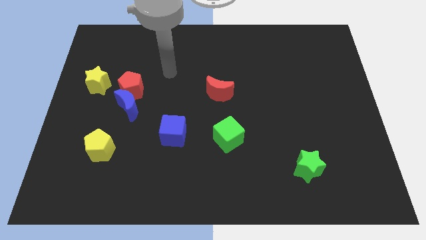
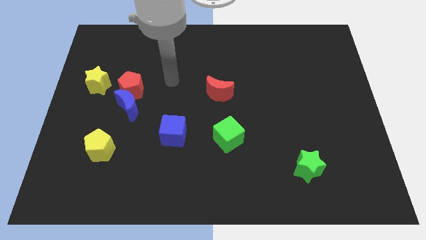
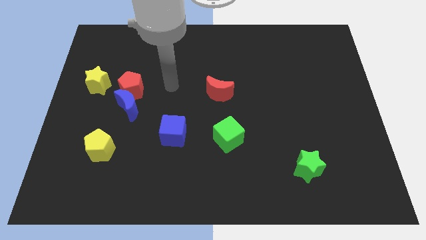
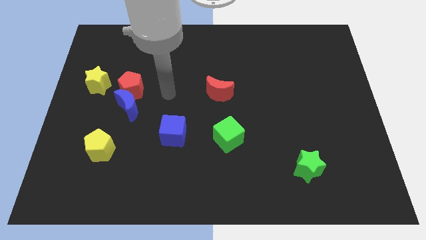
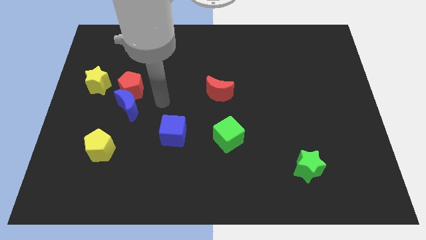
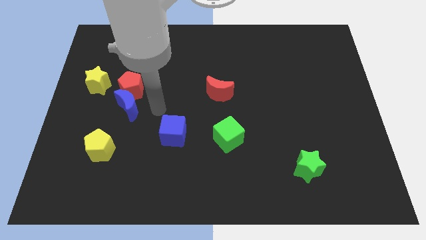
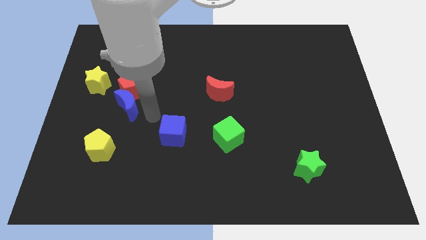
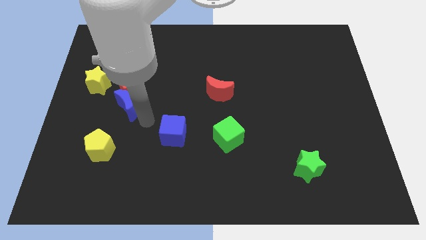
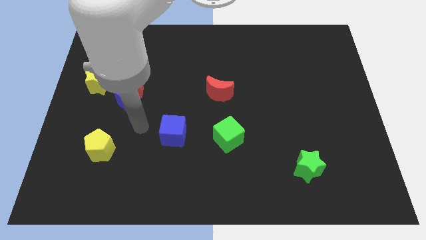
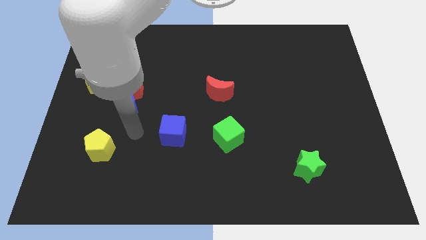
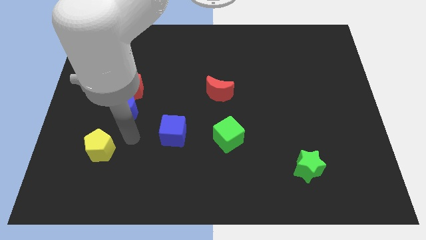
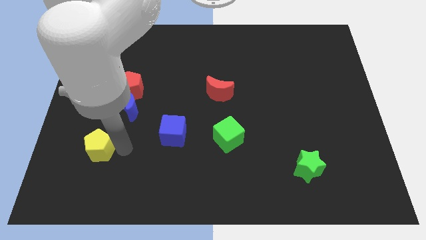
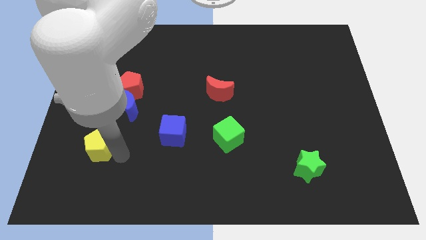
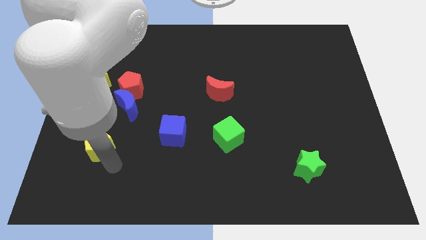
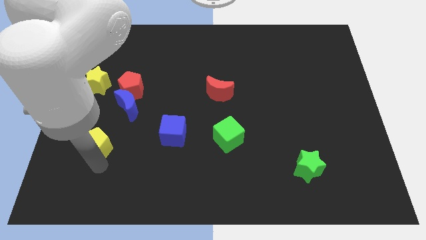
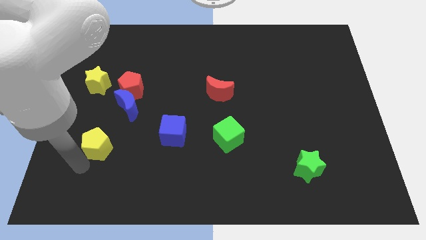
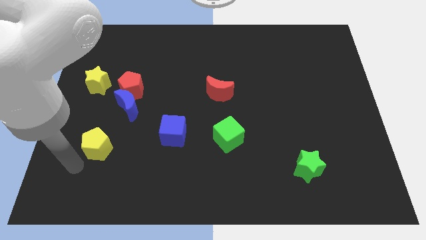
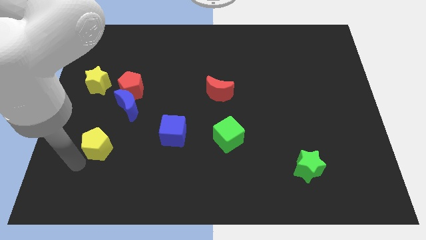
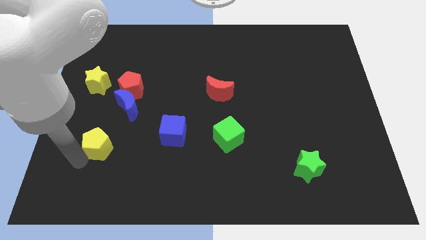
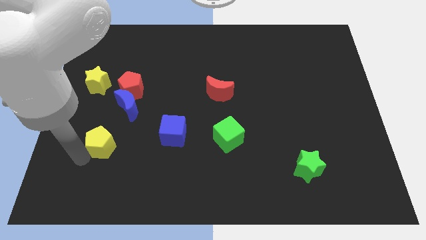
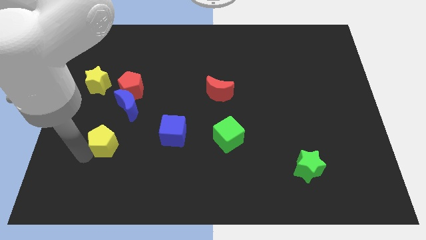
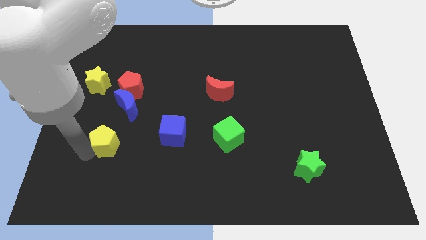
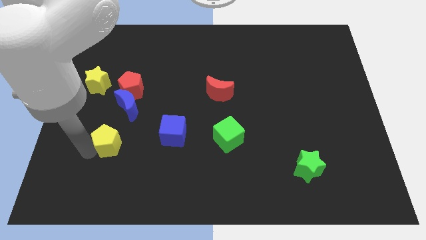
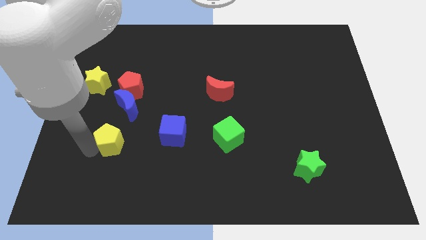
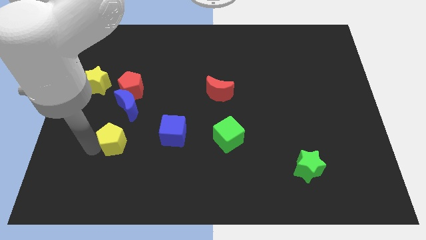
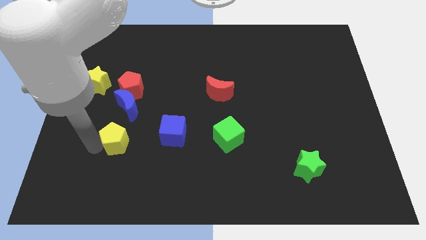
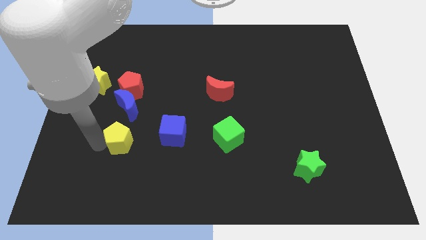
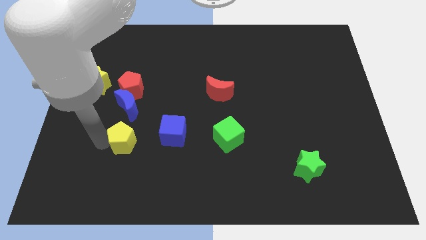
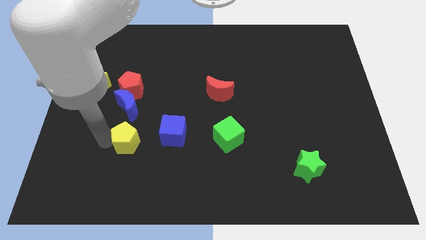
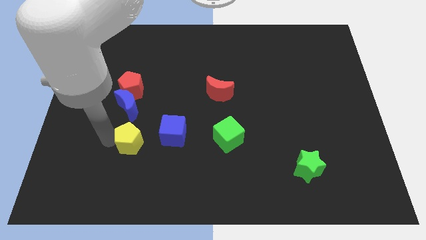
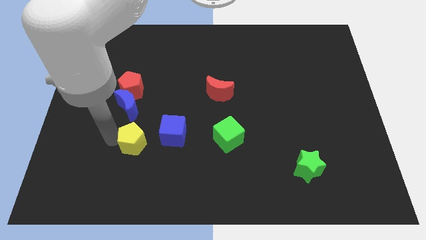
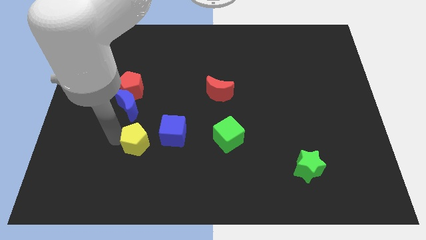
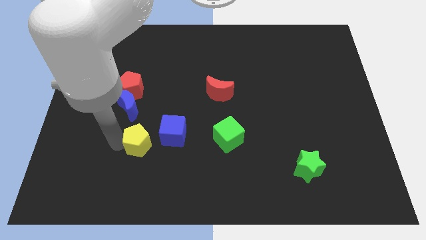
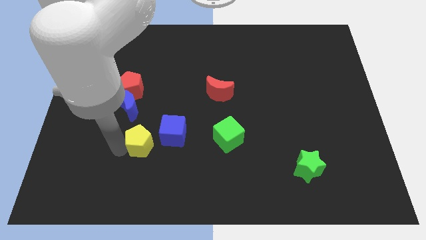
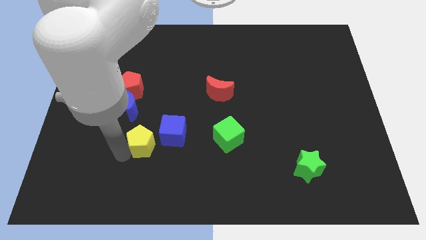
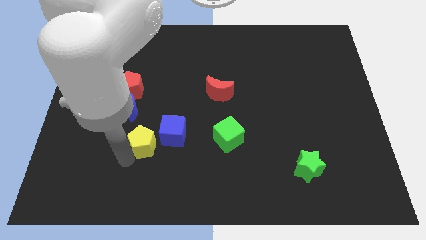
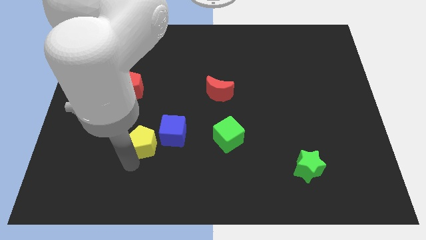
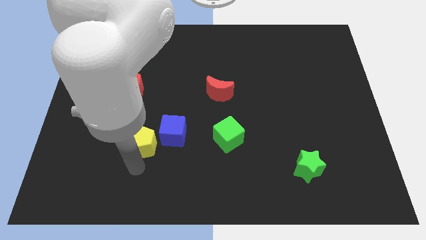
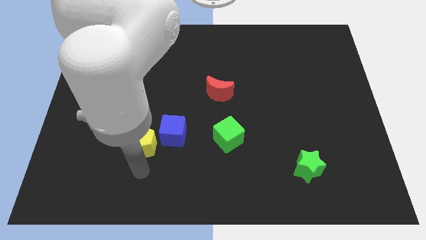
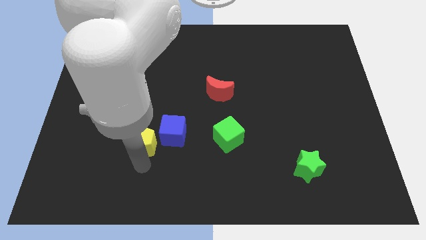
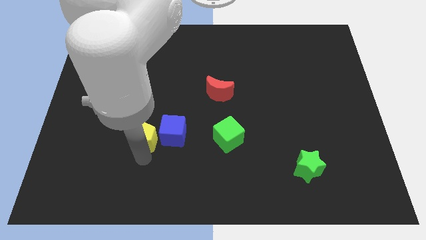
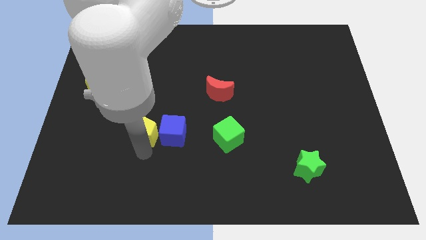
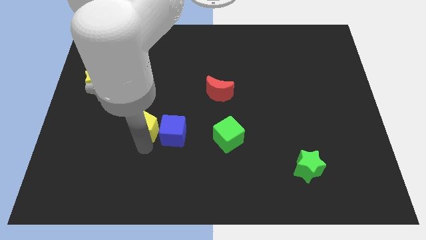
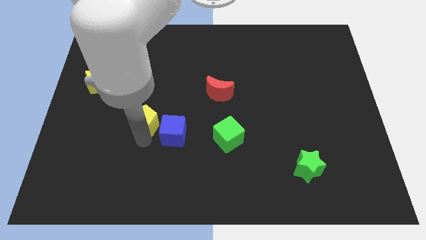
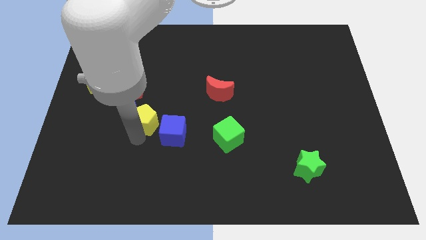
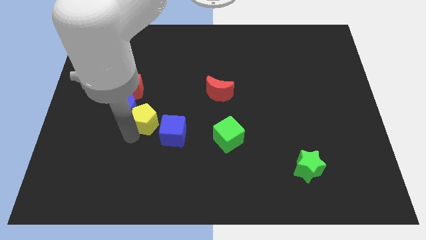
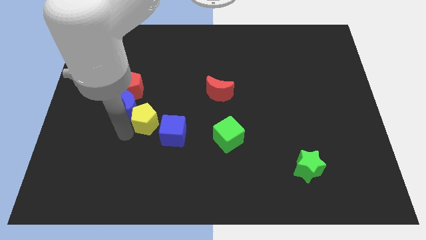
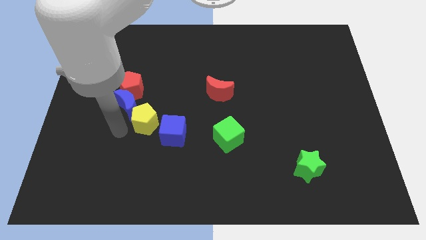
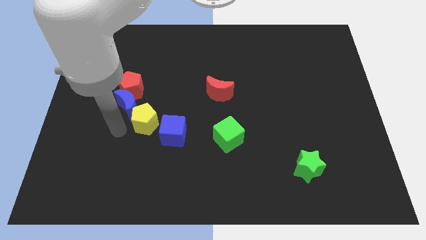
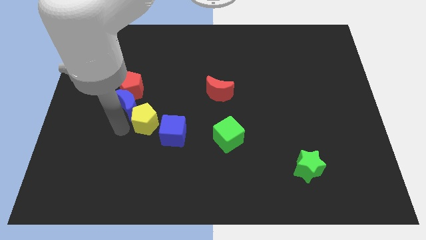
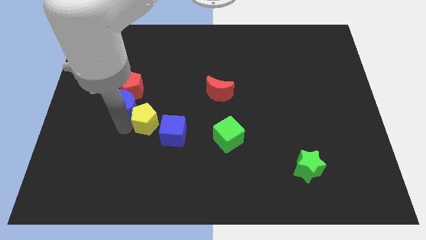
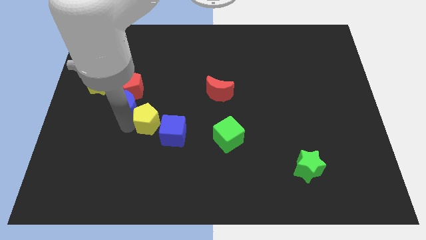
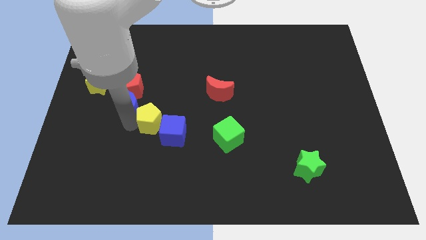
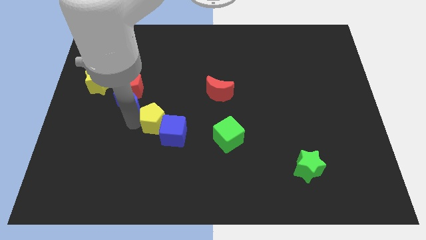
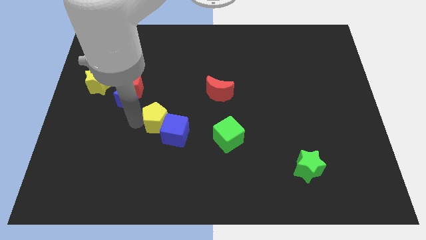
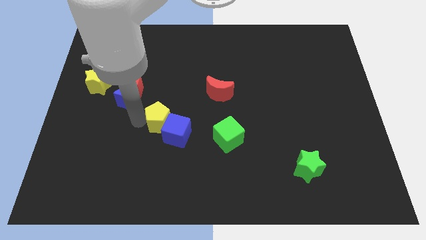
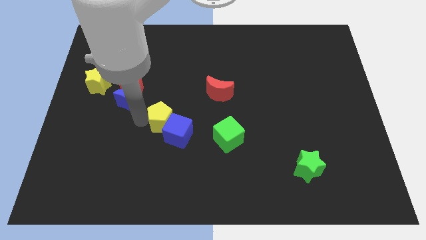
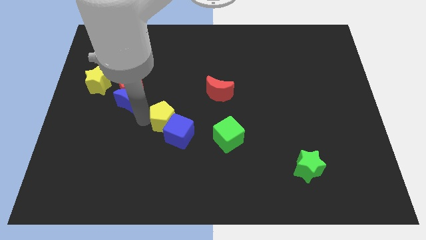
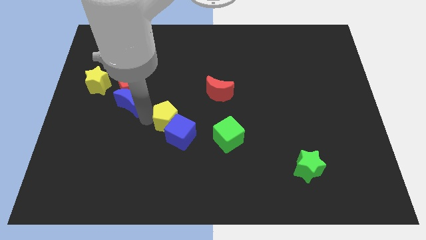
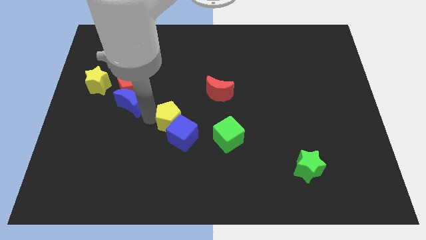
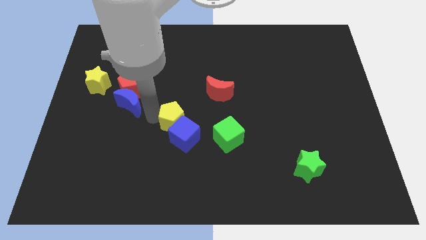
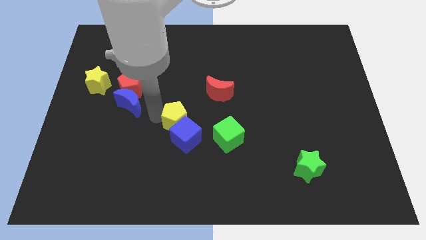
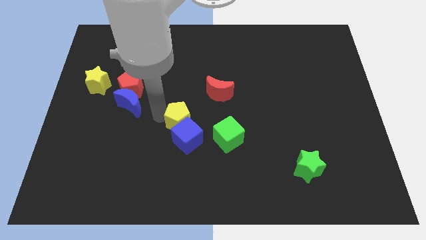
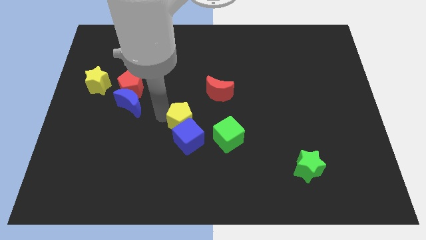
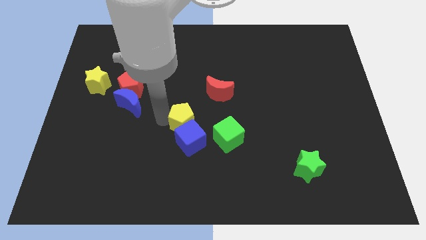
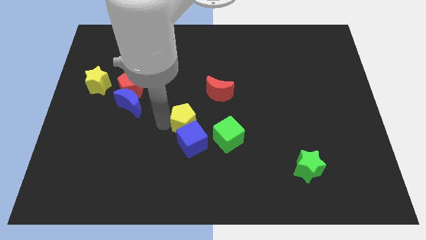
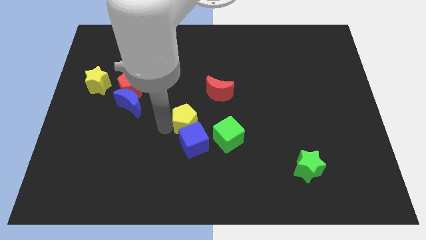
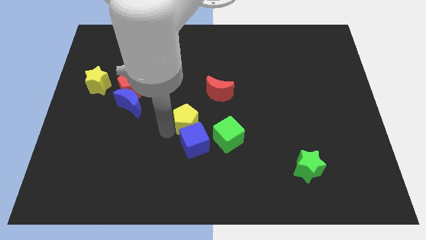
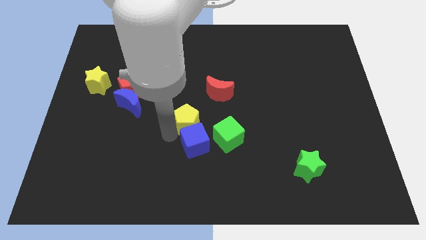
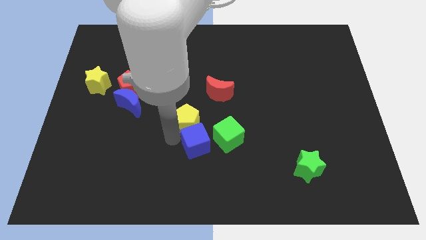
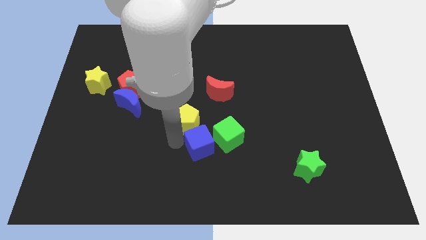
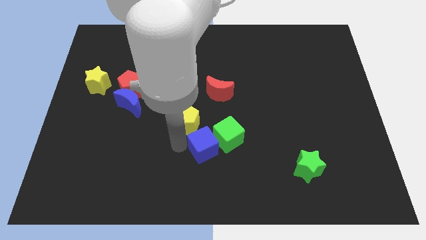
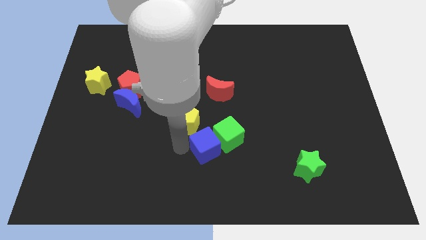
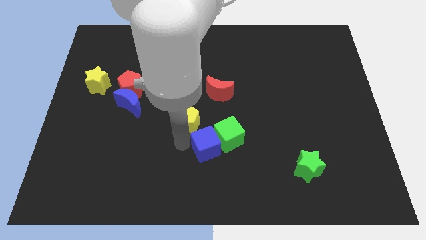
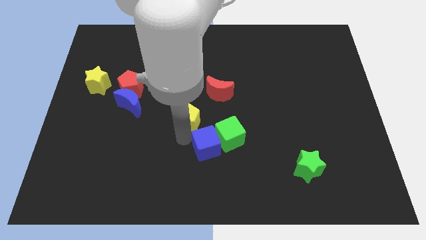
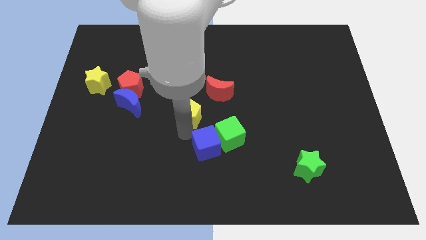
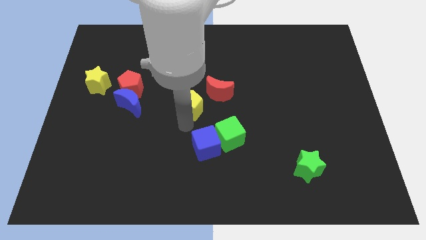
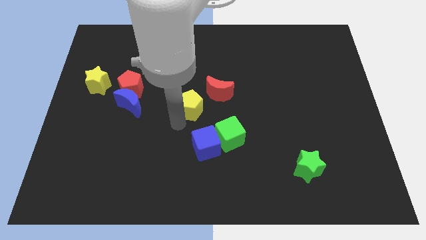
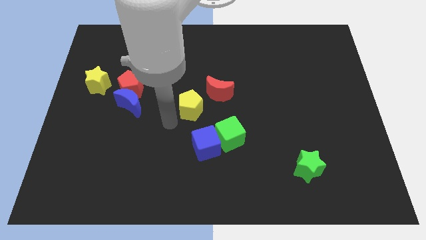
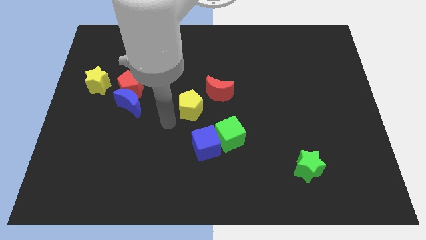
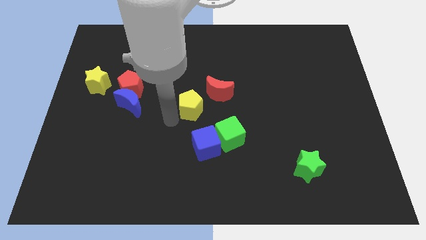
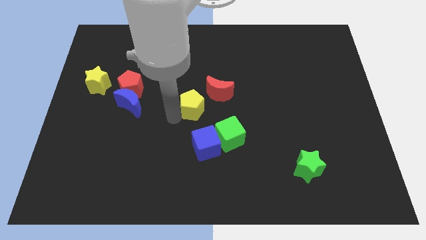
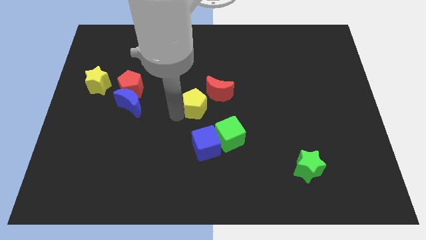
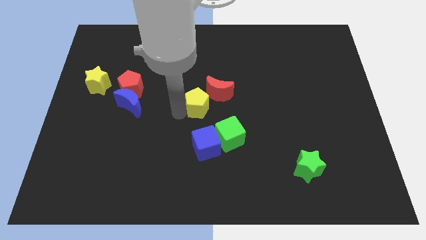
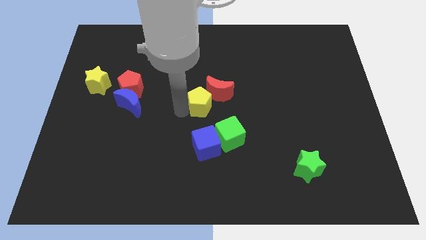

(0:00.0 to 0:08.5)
put the yellow pentagon next to the red moon

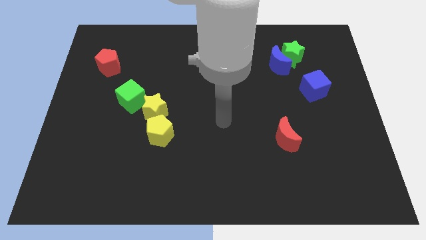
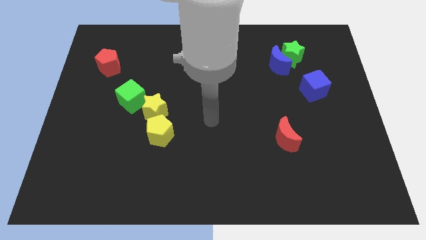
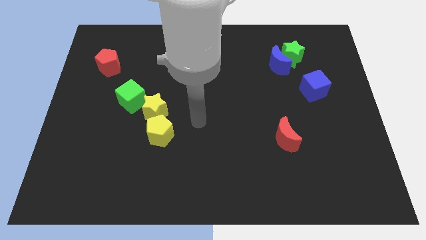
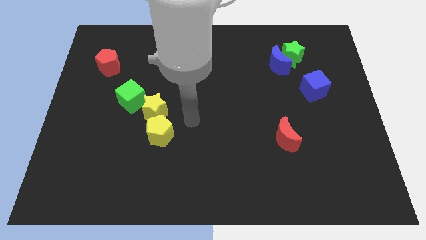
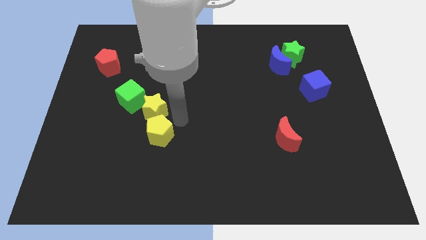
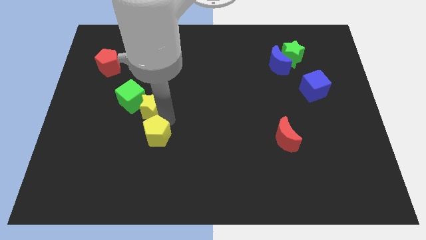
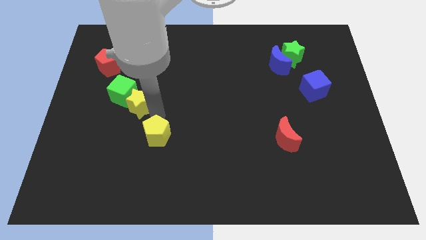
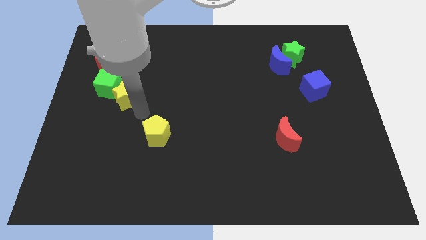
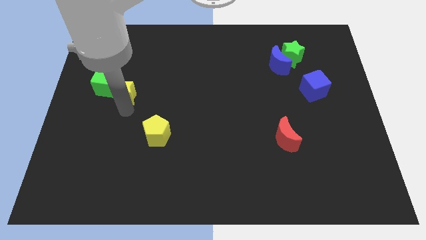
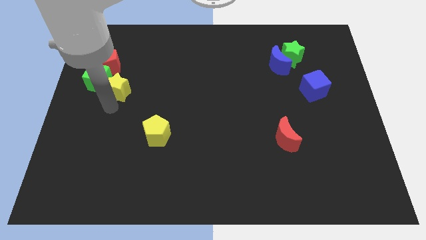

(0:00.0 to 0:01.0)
put the green cube towards the red pentagon
